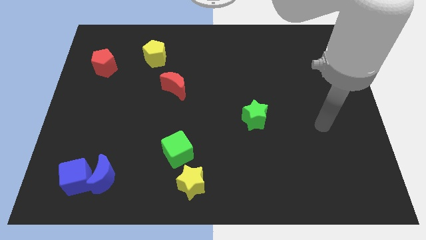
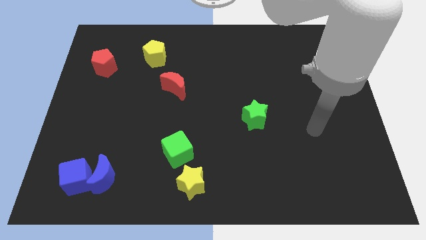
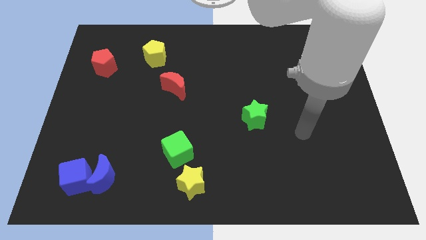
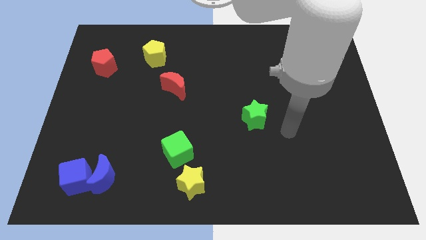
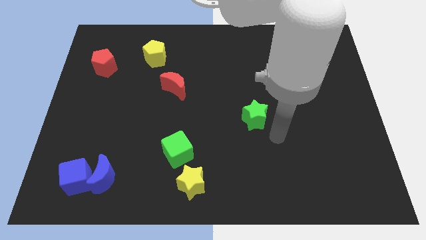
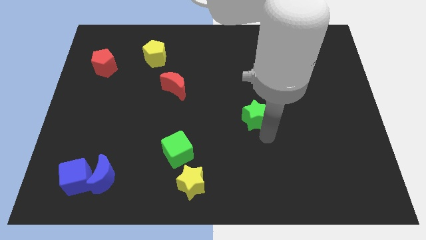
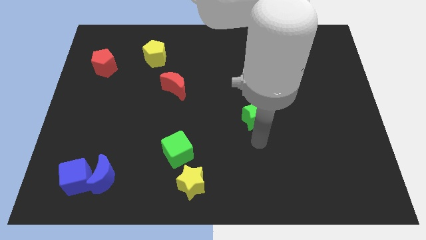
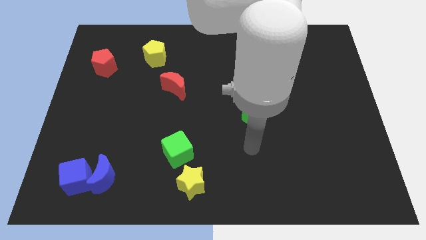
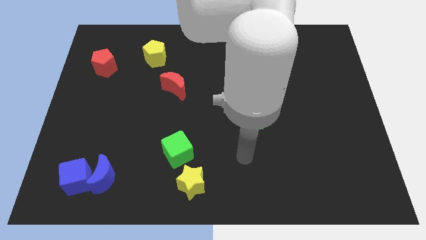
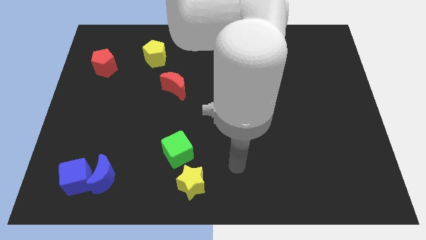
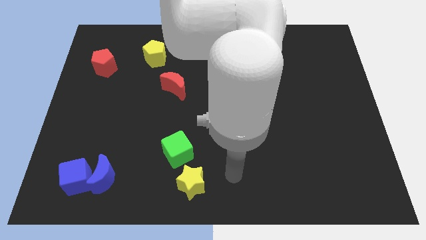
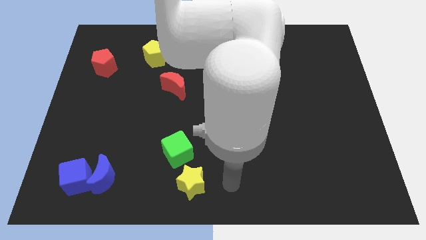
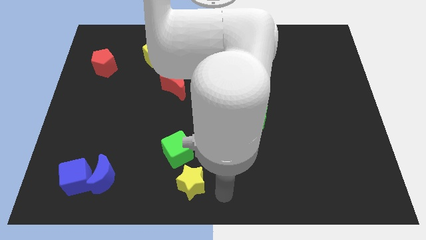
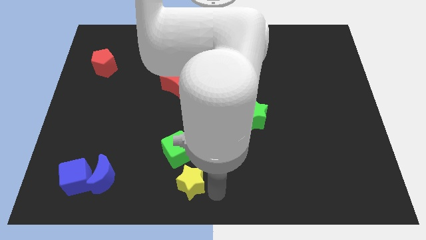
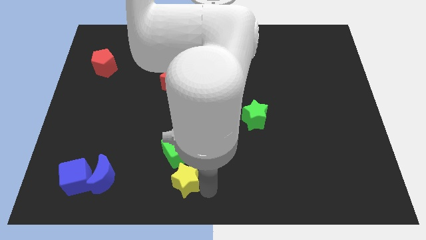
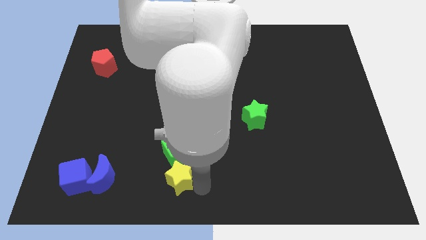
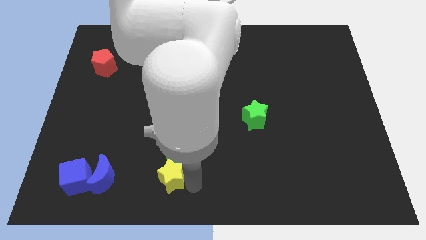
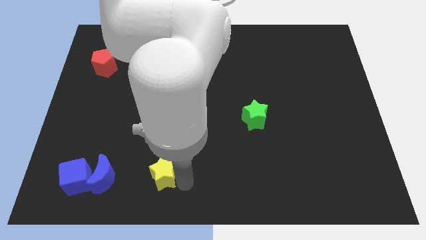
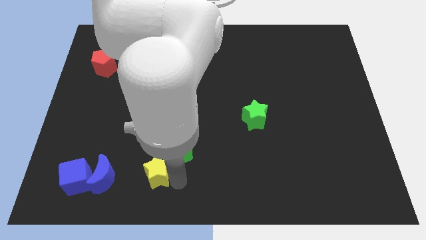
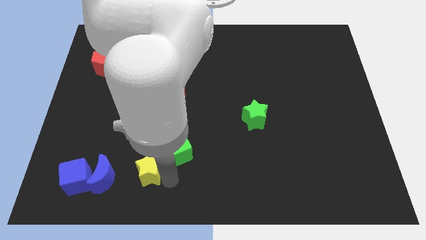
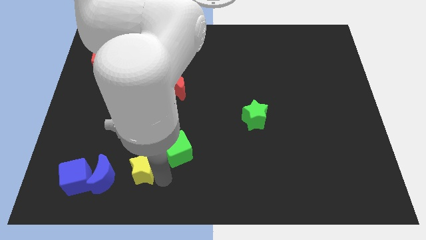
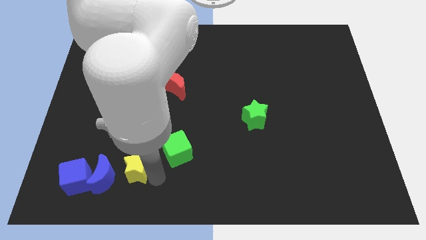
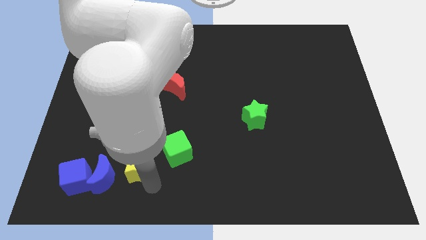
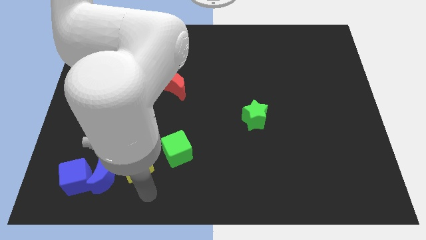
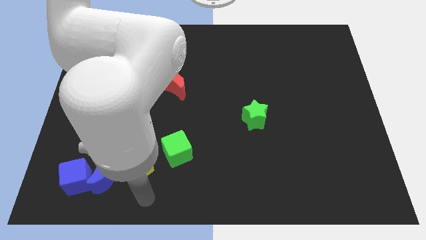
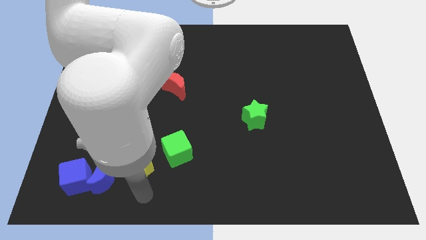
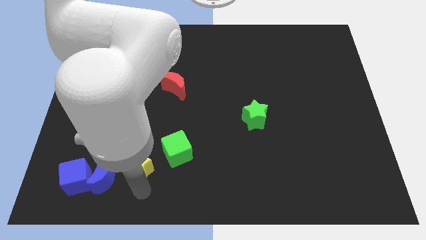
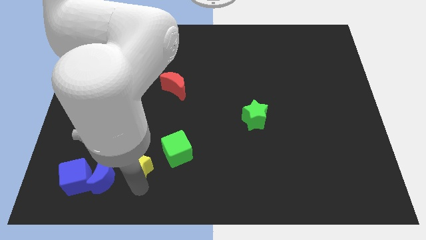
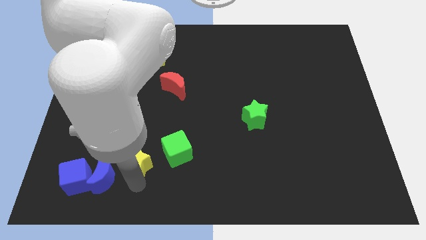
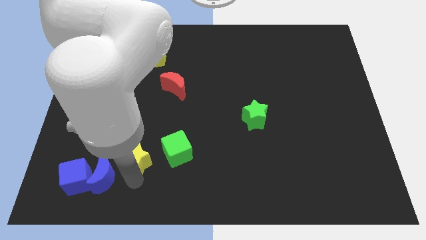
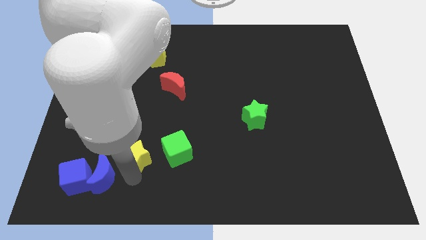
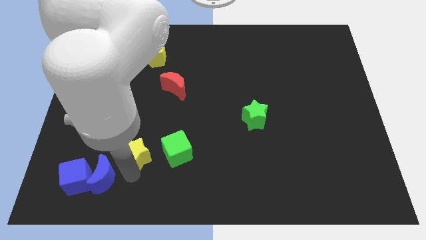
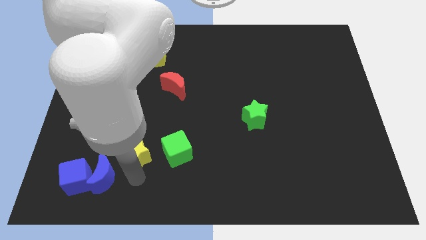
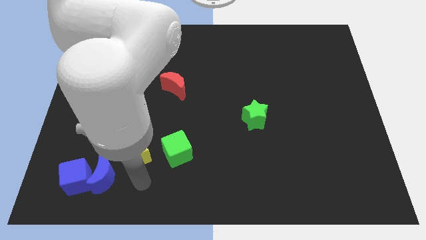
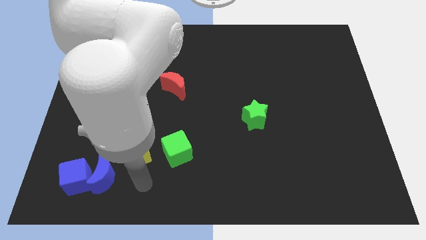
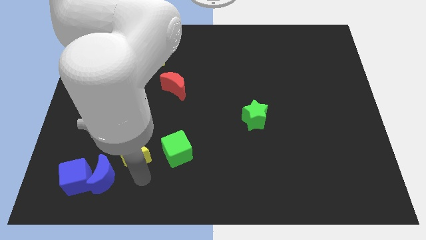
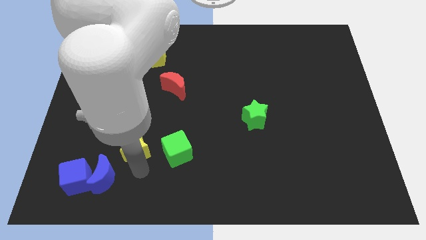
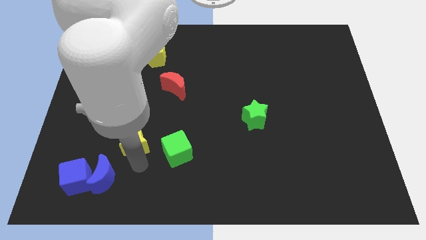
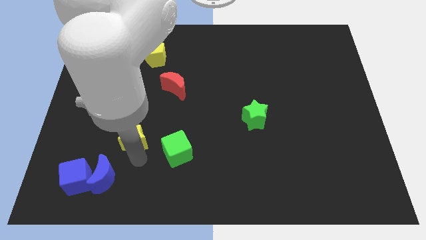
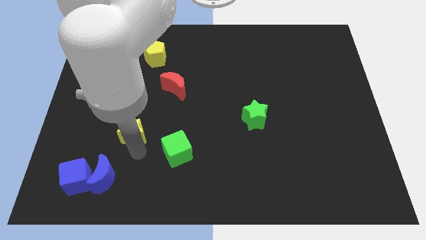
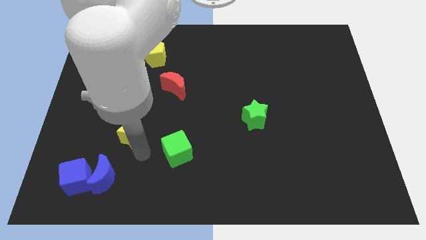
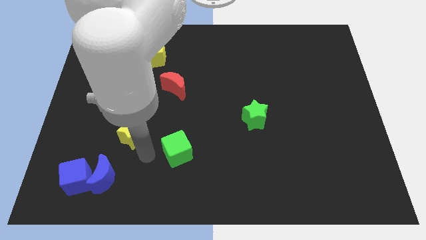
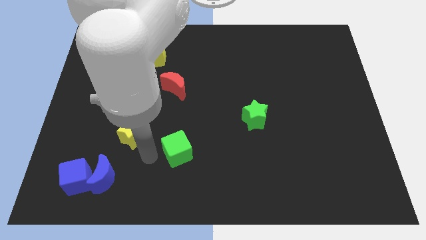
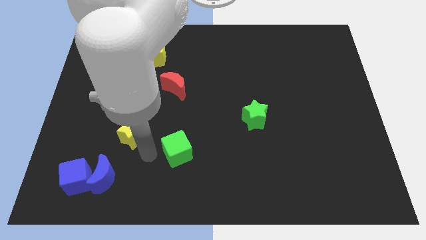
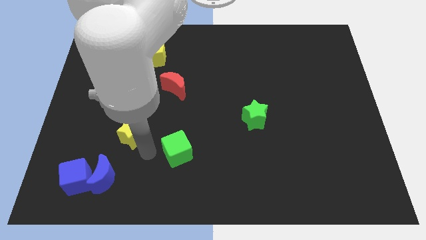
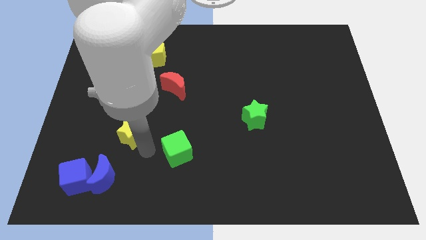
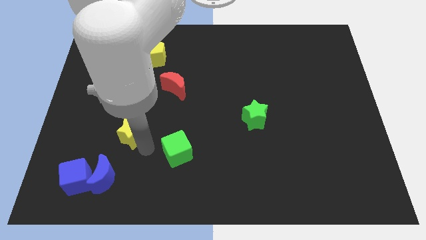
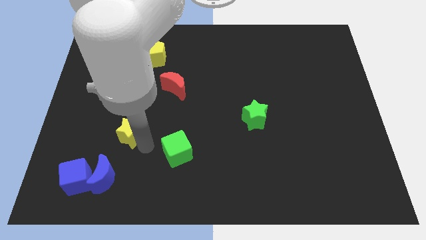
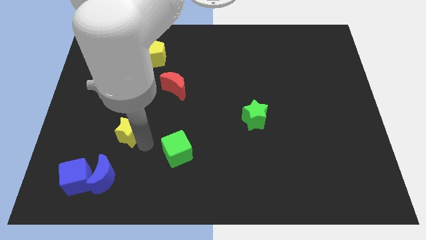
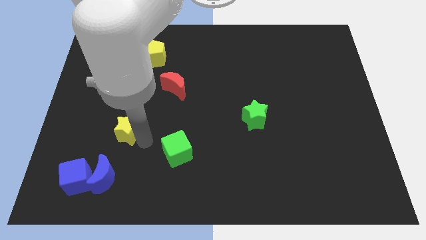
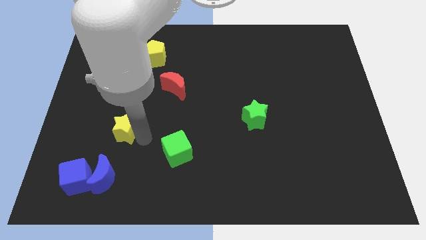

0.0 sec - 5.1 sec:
move the yellow star up and to the left diagonally

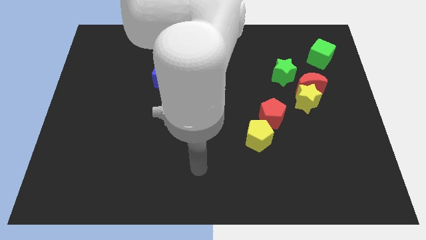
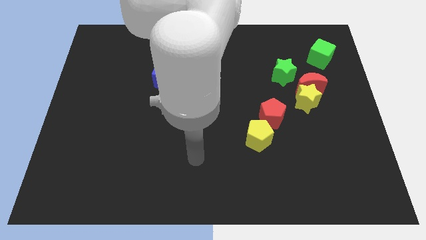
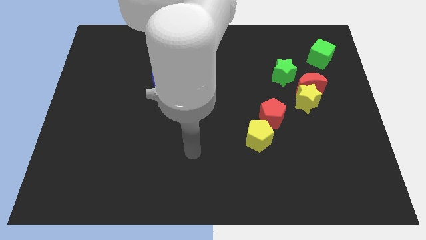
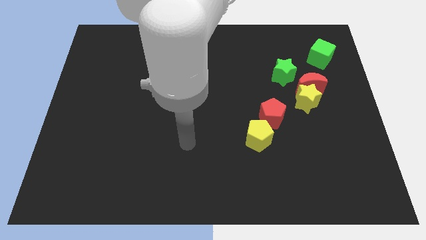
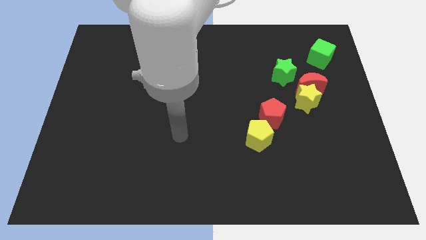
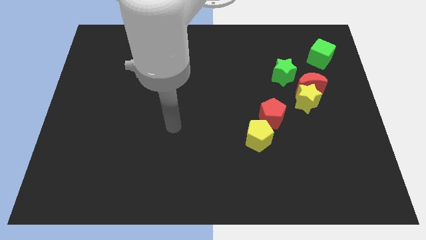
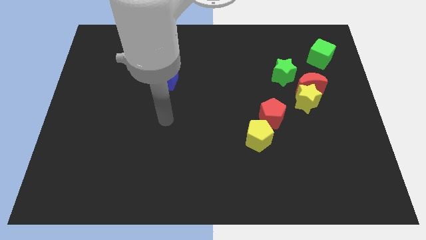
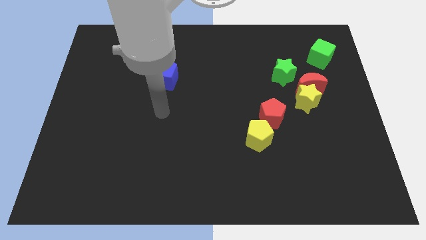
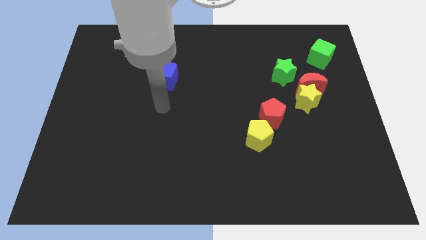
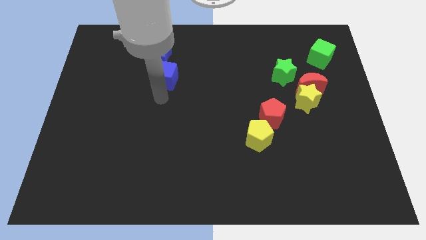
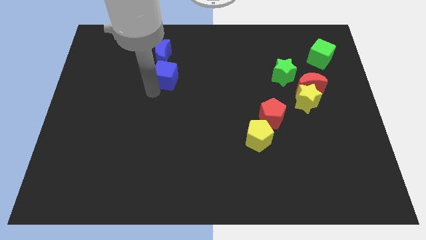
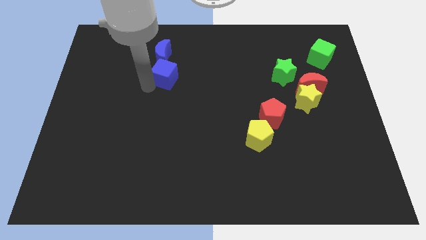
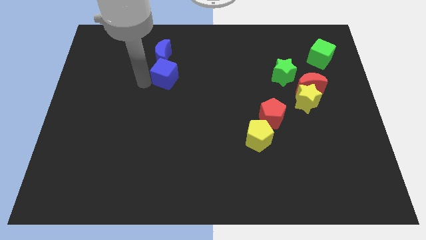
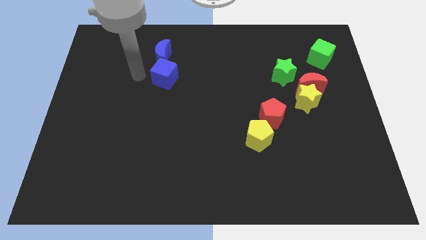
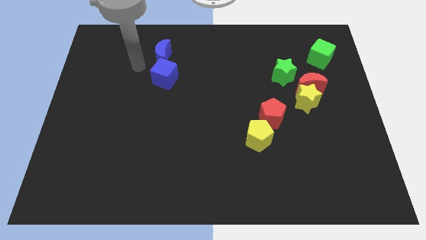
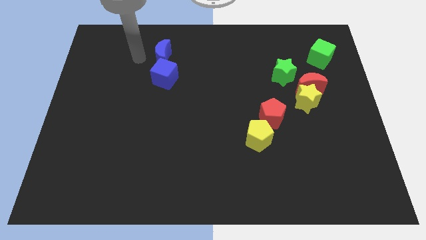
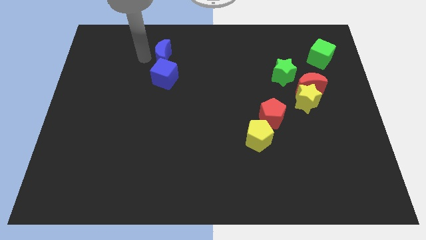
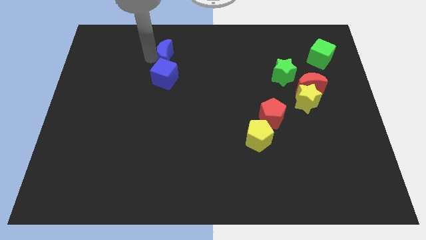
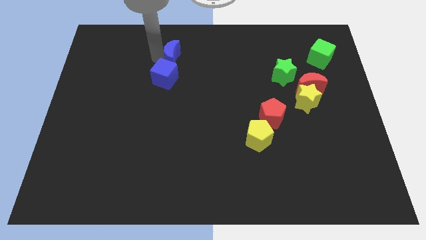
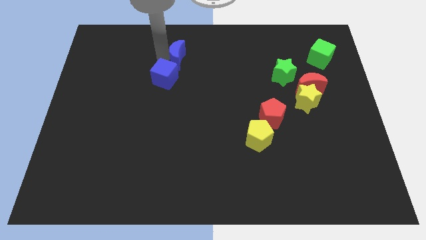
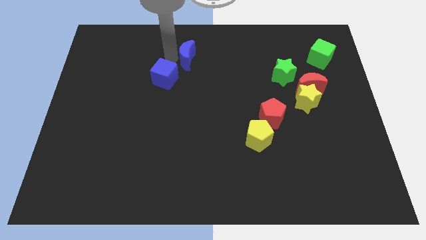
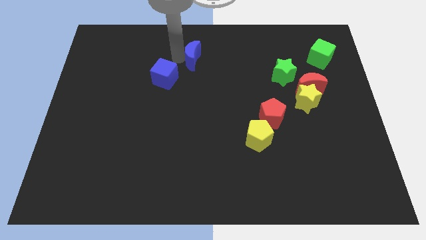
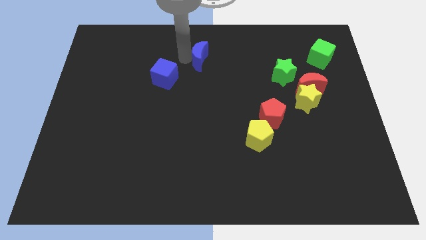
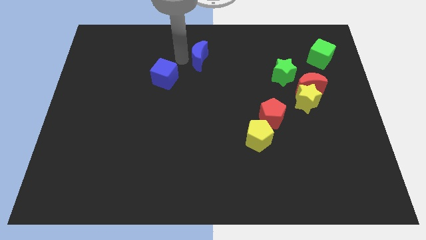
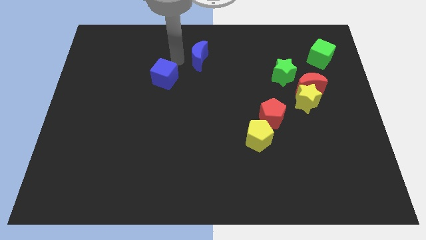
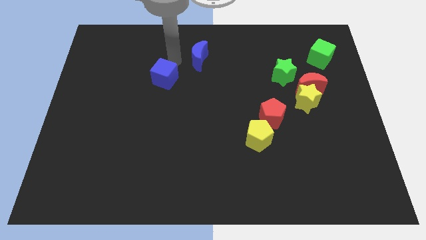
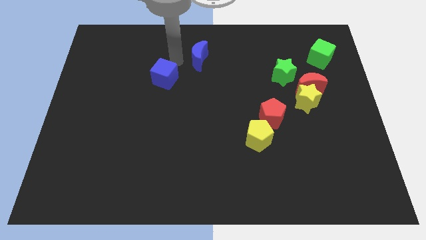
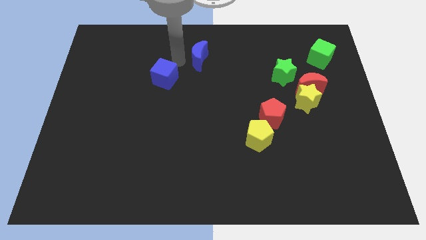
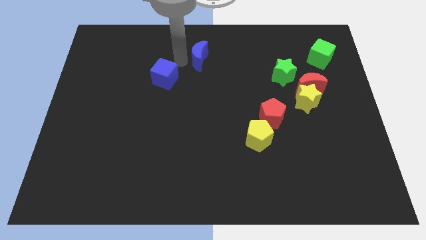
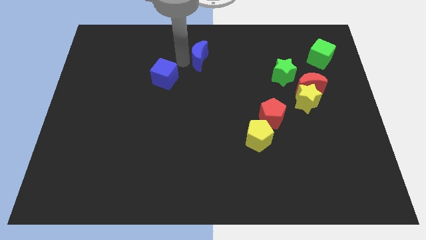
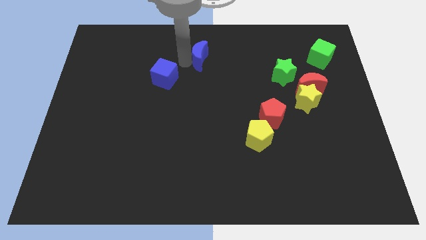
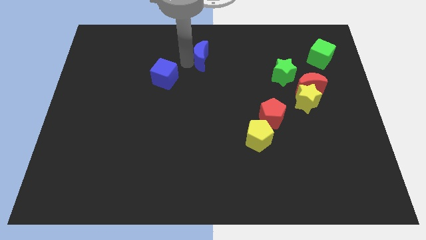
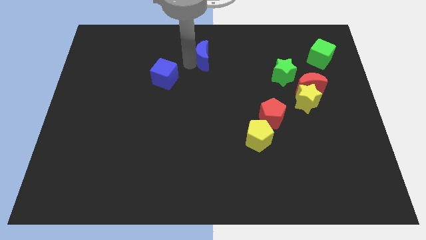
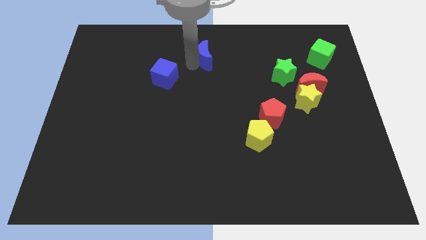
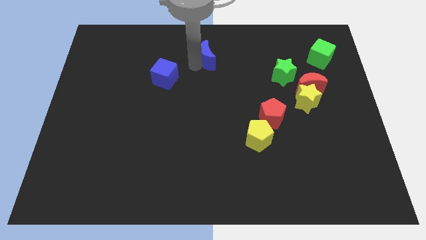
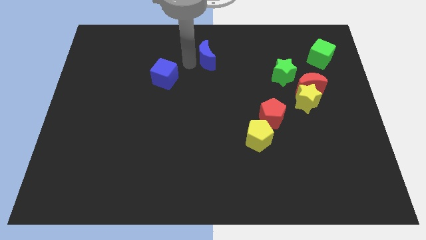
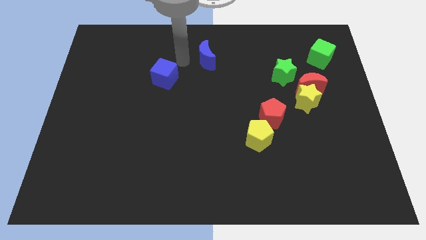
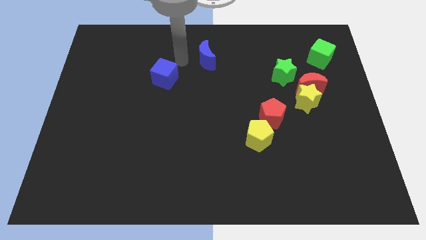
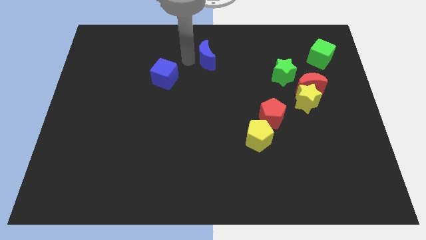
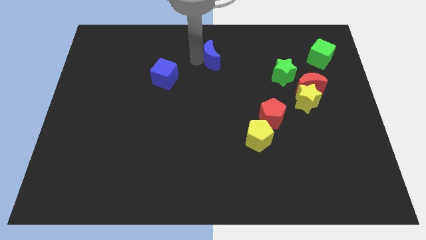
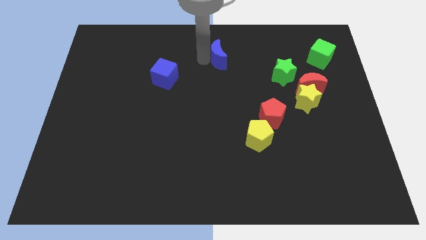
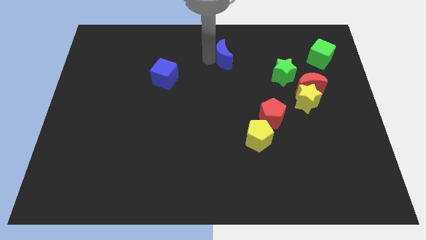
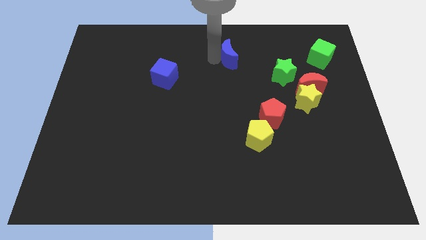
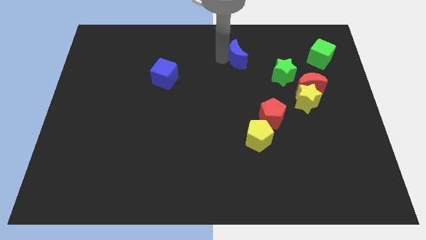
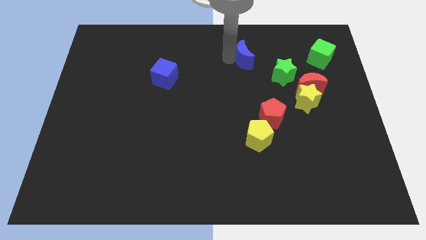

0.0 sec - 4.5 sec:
slide the blue moon right
